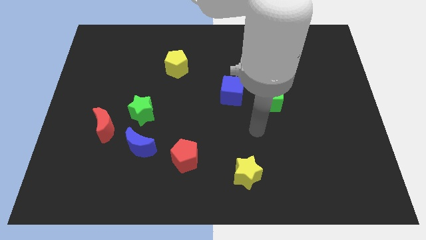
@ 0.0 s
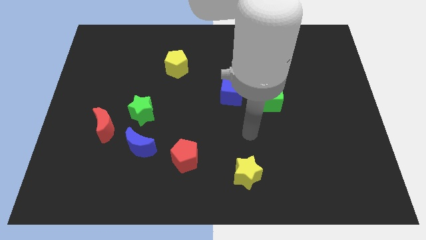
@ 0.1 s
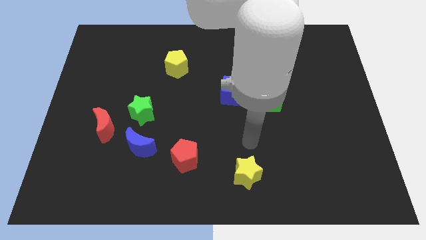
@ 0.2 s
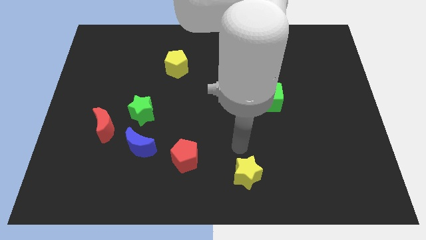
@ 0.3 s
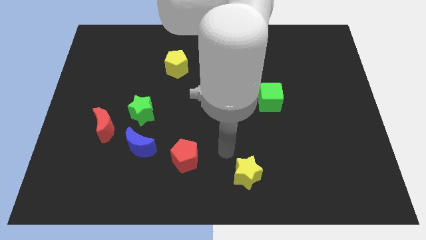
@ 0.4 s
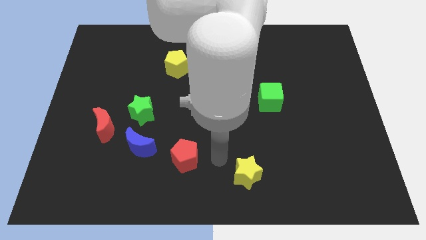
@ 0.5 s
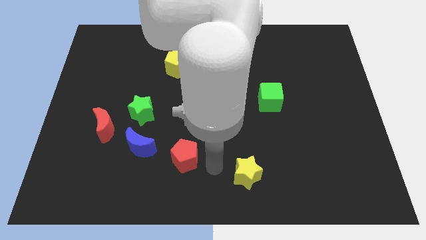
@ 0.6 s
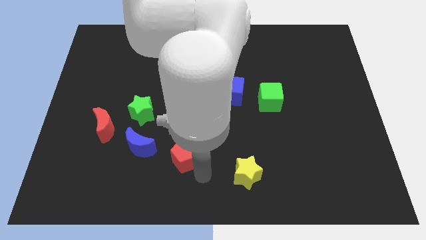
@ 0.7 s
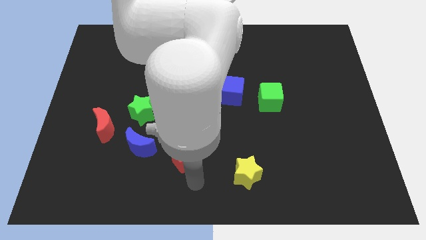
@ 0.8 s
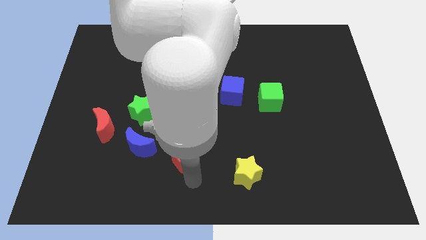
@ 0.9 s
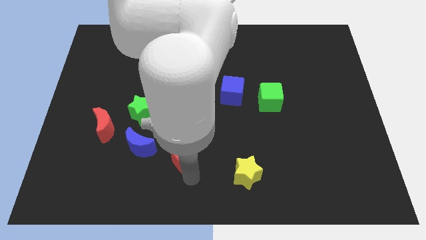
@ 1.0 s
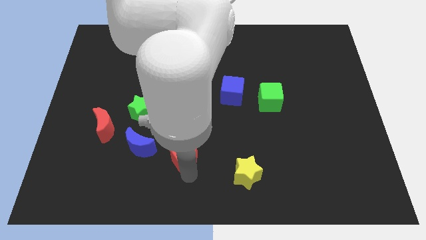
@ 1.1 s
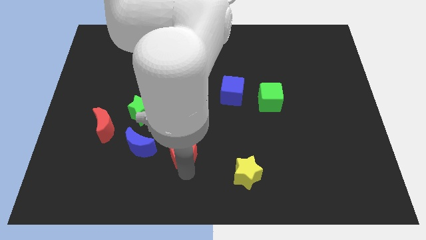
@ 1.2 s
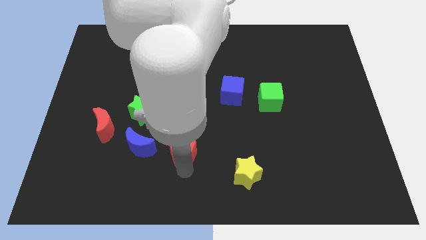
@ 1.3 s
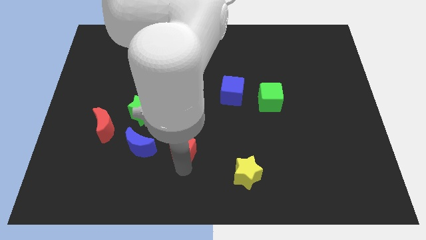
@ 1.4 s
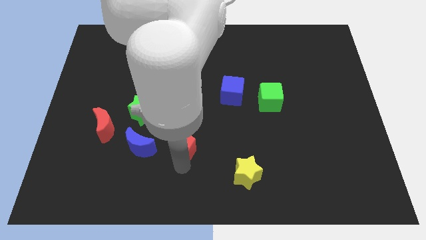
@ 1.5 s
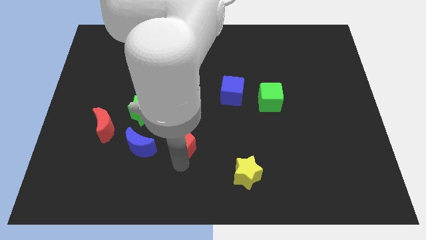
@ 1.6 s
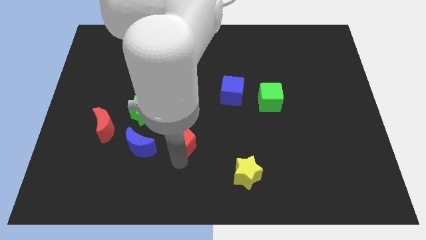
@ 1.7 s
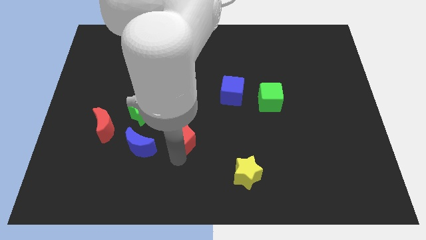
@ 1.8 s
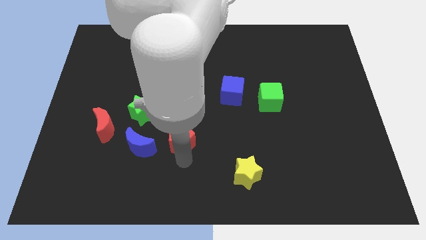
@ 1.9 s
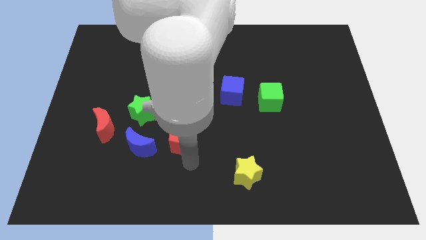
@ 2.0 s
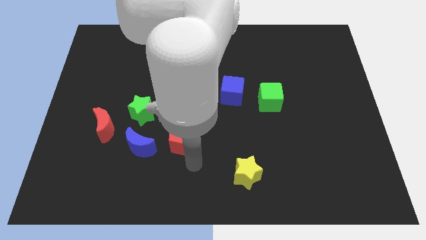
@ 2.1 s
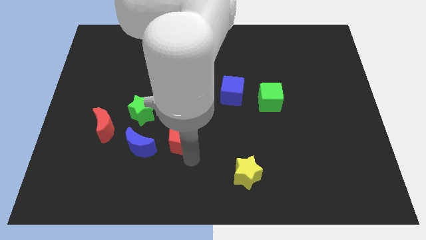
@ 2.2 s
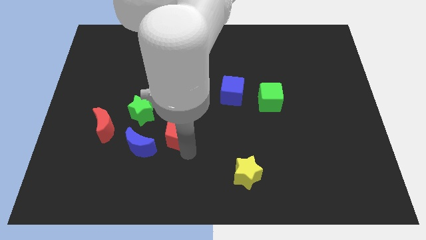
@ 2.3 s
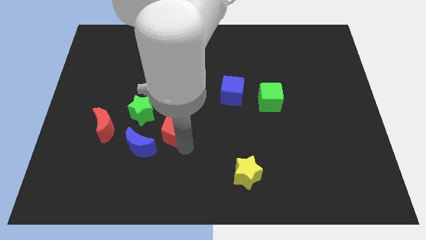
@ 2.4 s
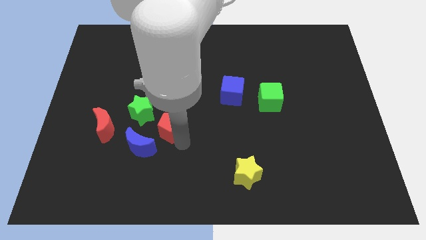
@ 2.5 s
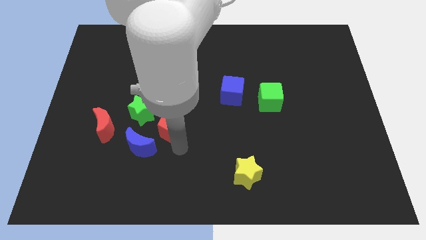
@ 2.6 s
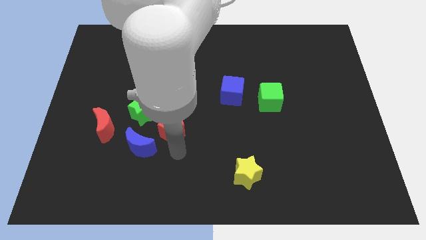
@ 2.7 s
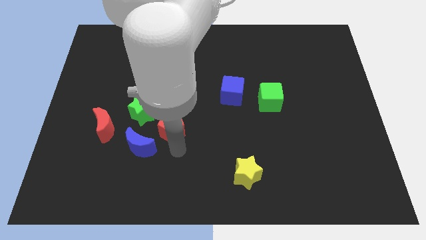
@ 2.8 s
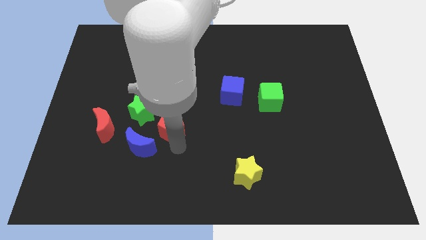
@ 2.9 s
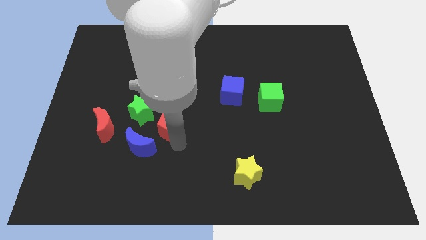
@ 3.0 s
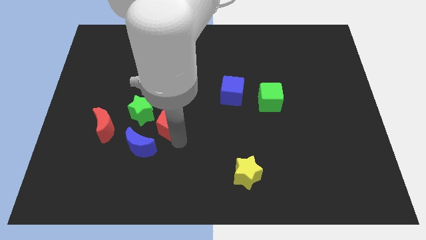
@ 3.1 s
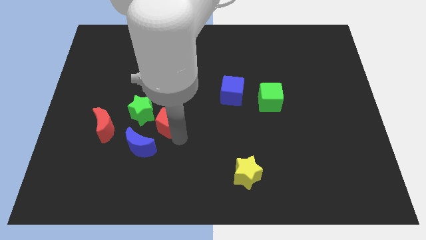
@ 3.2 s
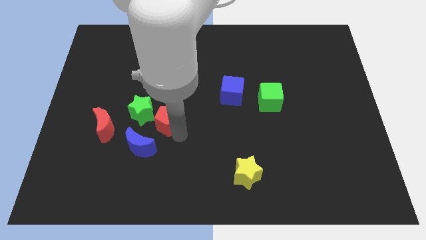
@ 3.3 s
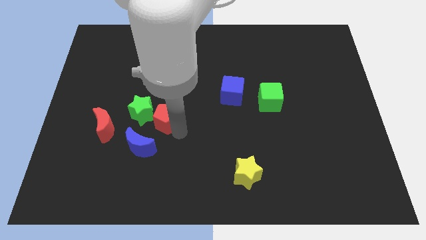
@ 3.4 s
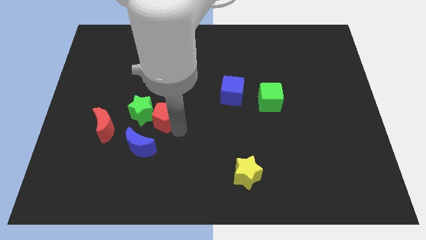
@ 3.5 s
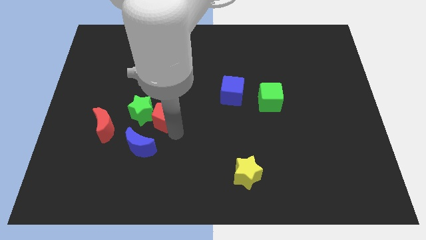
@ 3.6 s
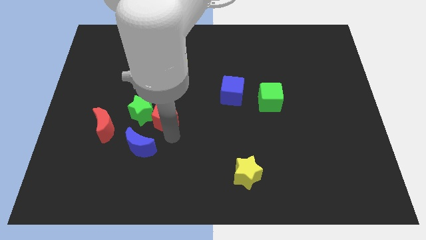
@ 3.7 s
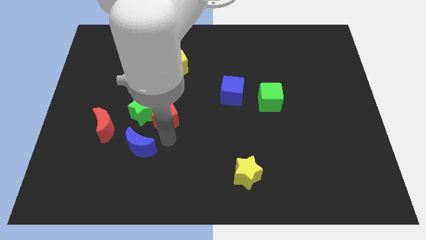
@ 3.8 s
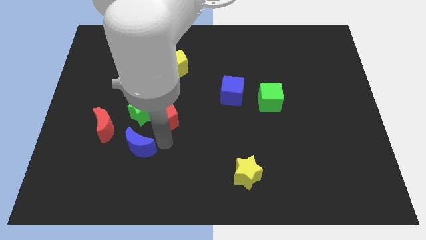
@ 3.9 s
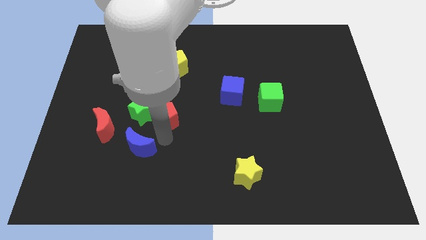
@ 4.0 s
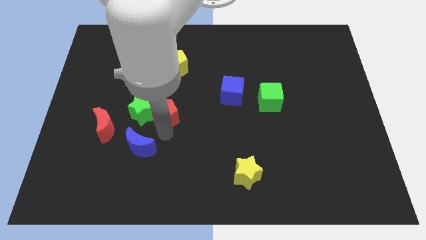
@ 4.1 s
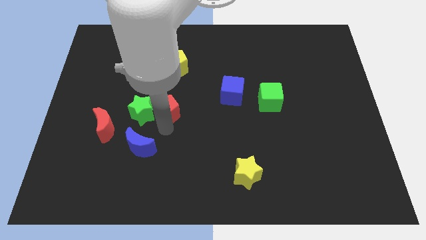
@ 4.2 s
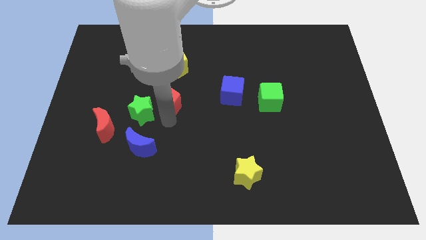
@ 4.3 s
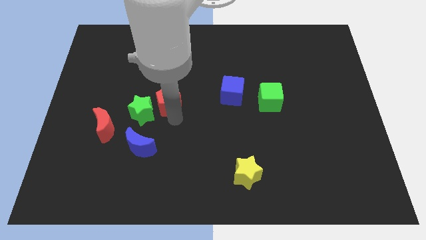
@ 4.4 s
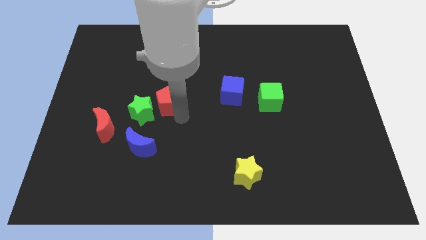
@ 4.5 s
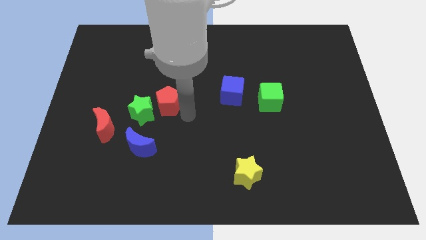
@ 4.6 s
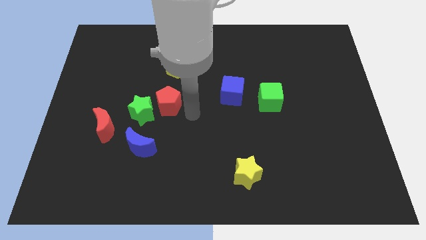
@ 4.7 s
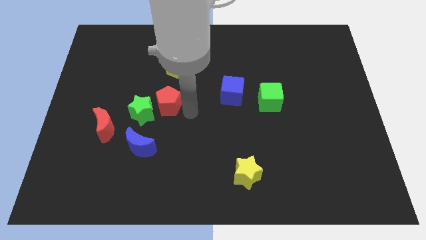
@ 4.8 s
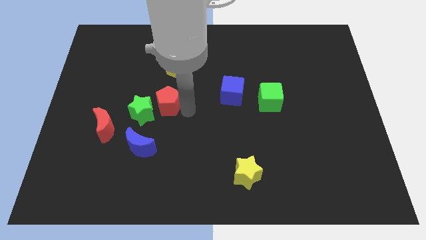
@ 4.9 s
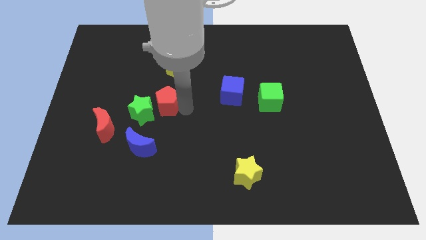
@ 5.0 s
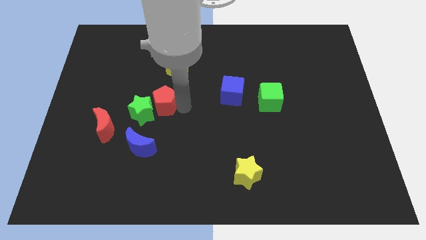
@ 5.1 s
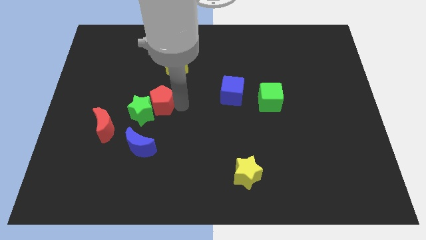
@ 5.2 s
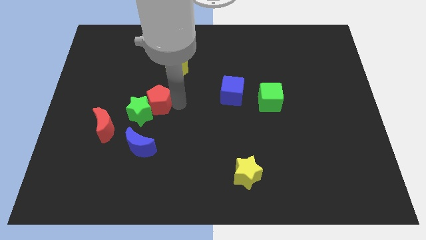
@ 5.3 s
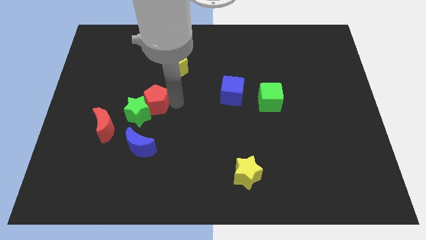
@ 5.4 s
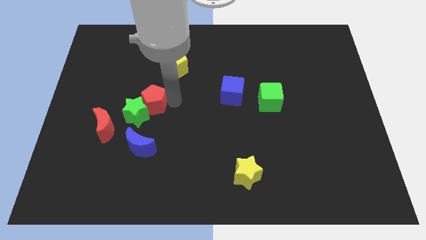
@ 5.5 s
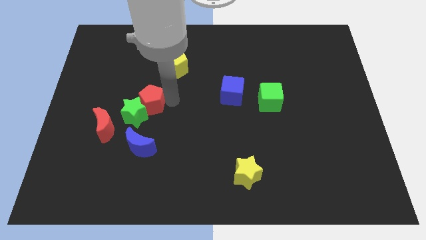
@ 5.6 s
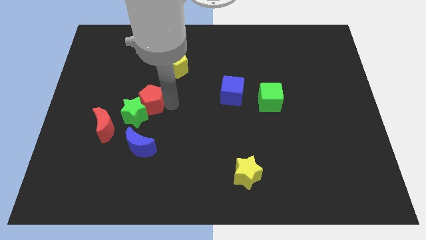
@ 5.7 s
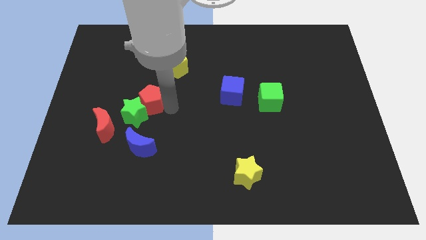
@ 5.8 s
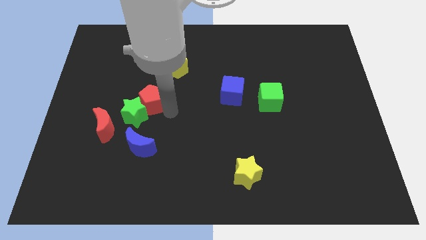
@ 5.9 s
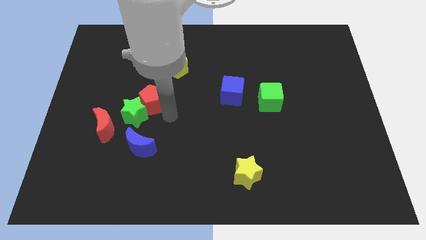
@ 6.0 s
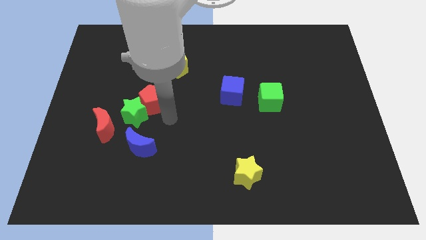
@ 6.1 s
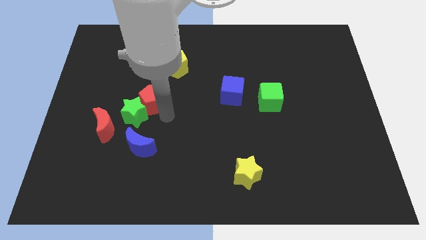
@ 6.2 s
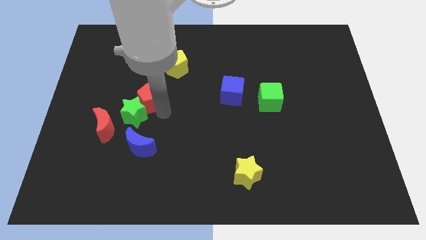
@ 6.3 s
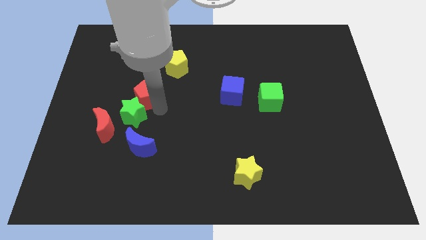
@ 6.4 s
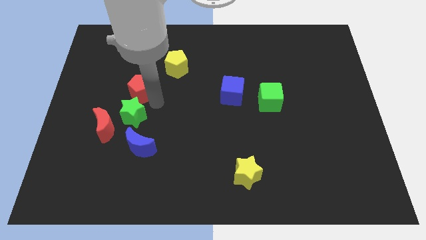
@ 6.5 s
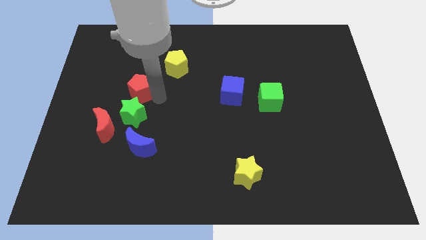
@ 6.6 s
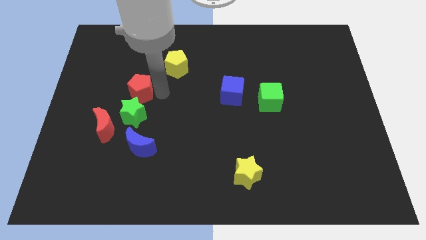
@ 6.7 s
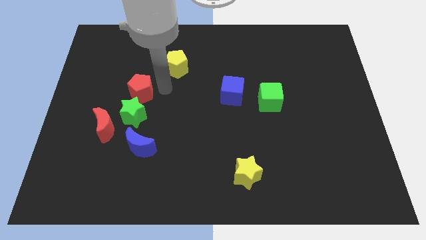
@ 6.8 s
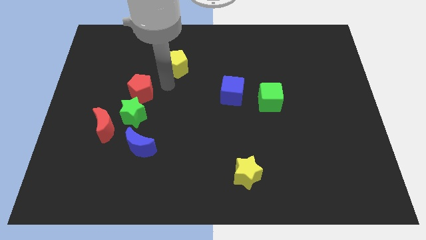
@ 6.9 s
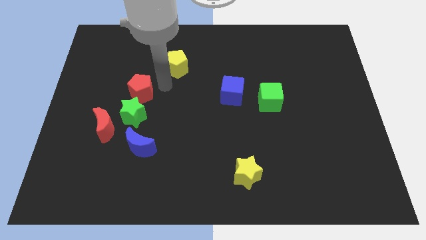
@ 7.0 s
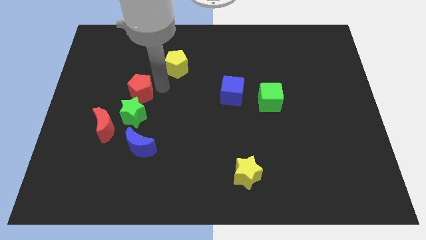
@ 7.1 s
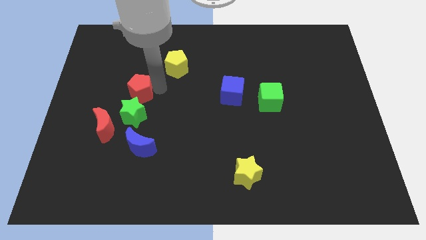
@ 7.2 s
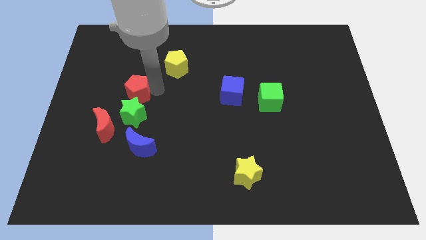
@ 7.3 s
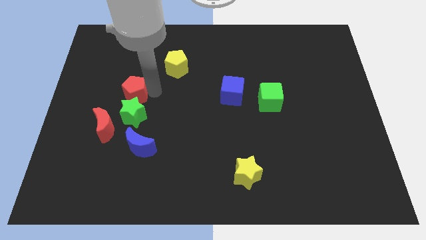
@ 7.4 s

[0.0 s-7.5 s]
put the red pentagon to the top left of the green star
